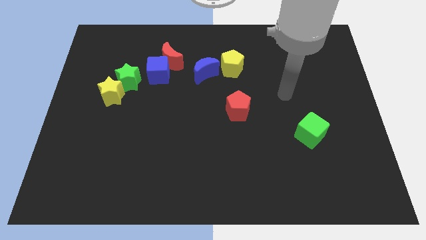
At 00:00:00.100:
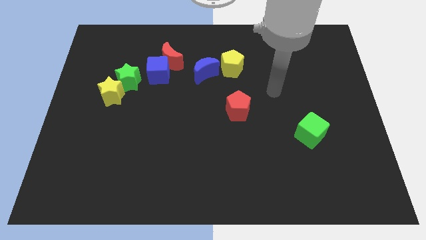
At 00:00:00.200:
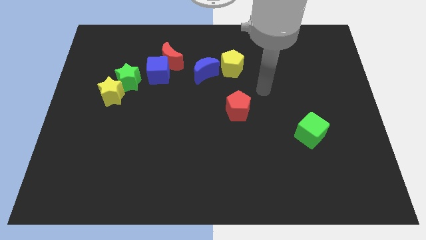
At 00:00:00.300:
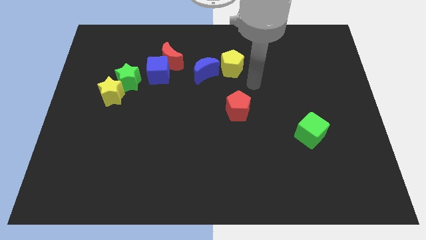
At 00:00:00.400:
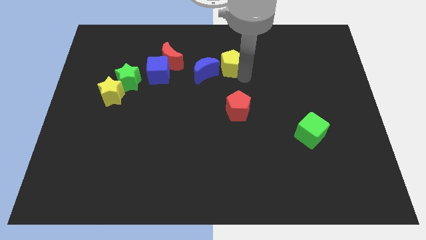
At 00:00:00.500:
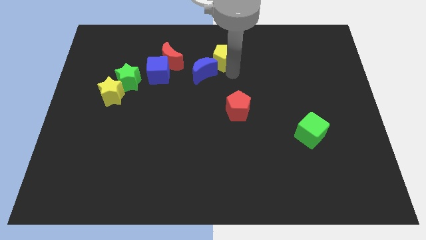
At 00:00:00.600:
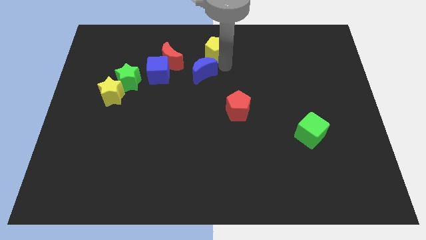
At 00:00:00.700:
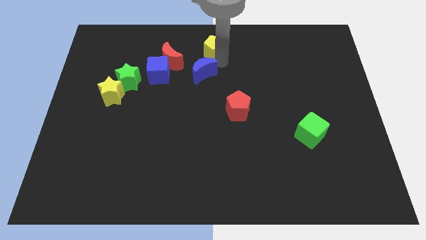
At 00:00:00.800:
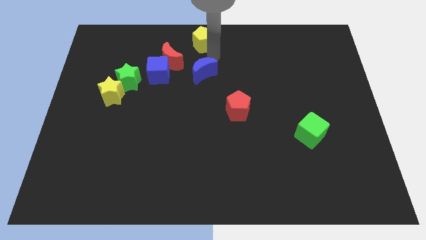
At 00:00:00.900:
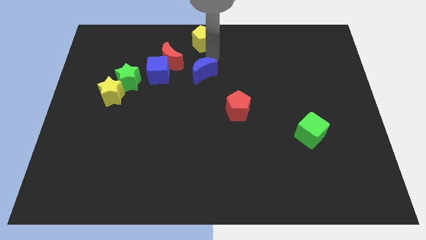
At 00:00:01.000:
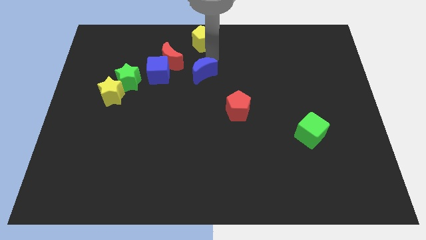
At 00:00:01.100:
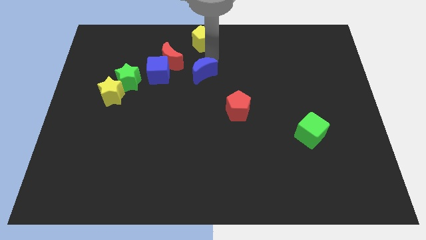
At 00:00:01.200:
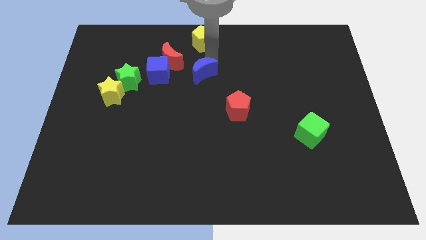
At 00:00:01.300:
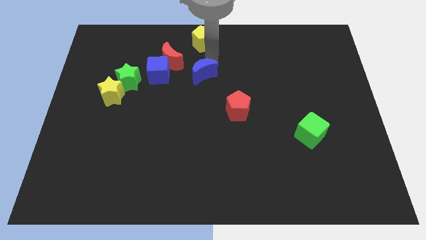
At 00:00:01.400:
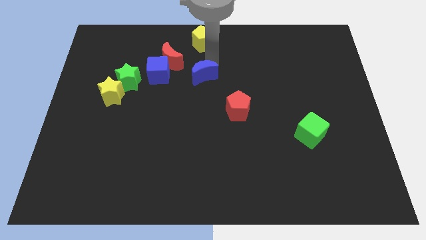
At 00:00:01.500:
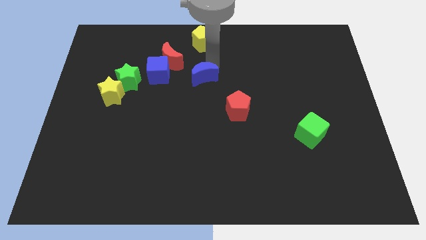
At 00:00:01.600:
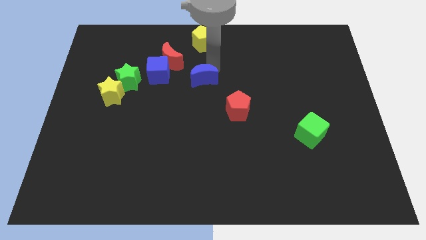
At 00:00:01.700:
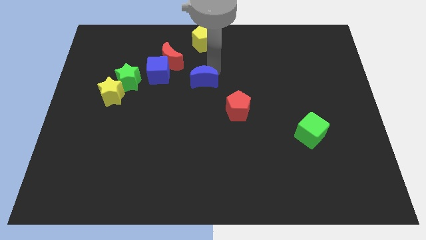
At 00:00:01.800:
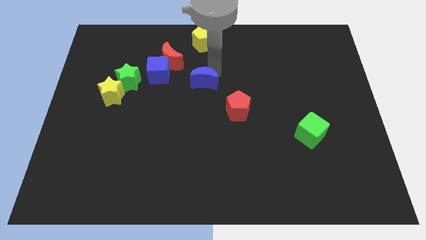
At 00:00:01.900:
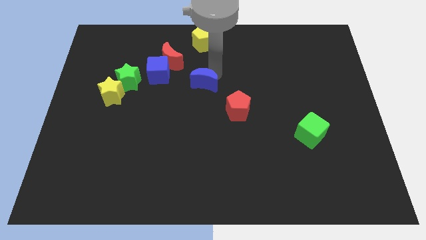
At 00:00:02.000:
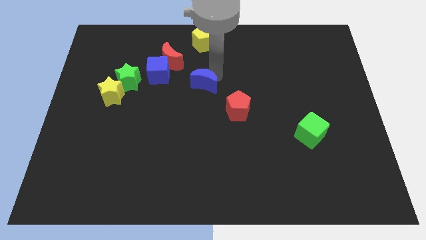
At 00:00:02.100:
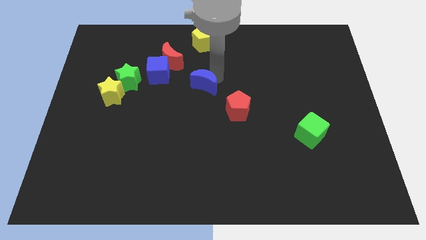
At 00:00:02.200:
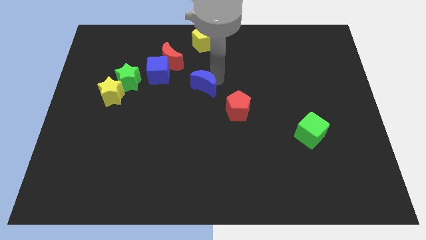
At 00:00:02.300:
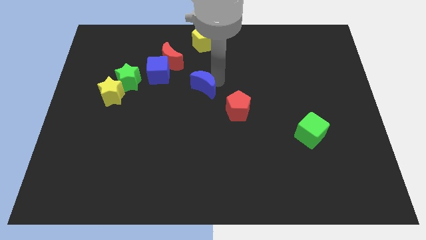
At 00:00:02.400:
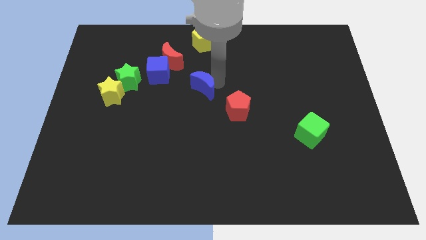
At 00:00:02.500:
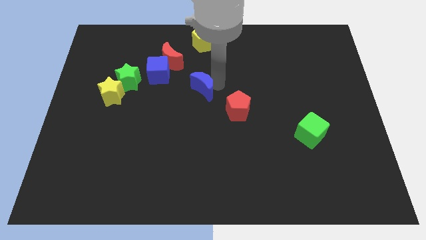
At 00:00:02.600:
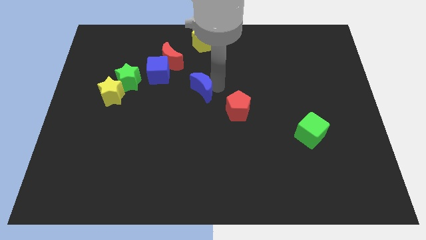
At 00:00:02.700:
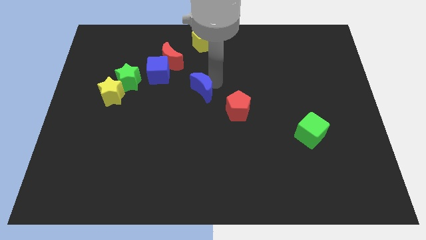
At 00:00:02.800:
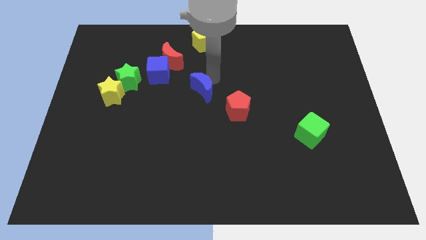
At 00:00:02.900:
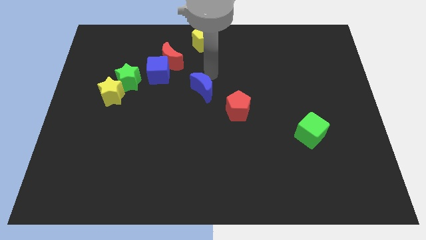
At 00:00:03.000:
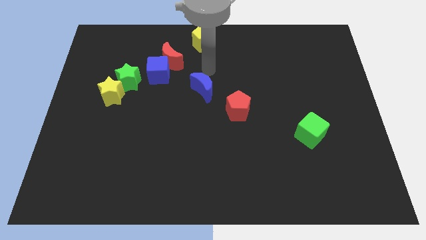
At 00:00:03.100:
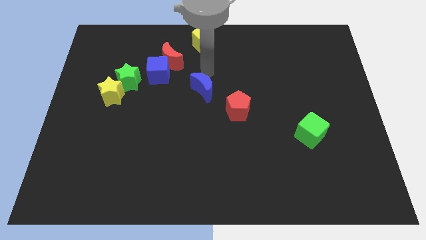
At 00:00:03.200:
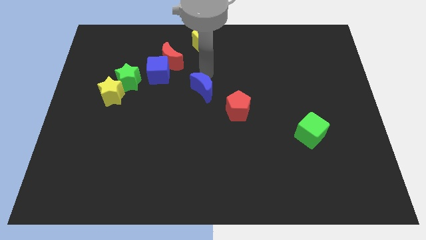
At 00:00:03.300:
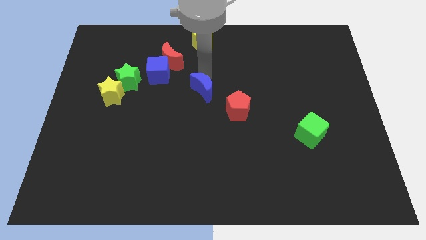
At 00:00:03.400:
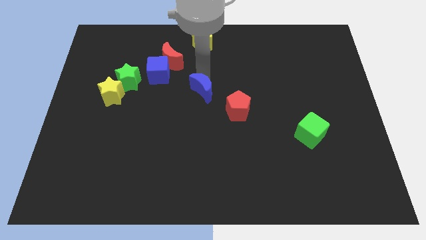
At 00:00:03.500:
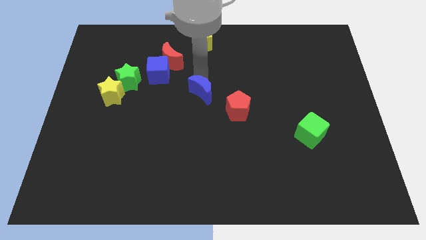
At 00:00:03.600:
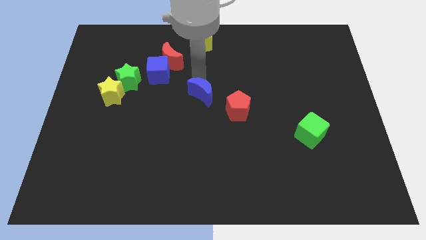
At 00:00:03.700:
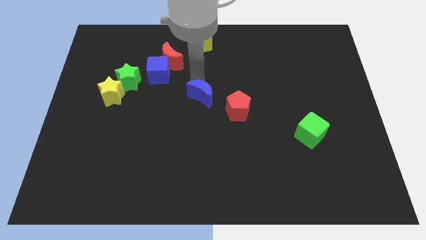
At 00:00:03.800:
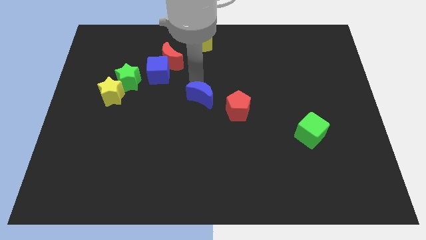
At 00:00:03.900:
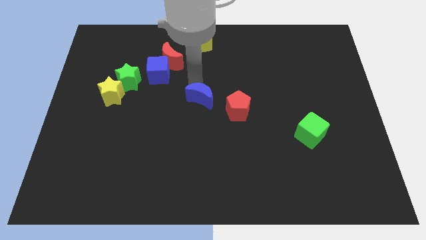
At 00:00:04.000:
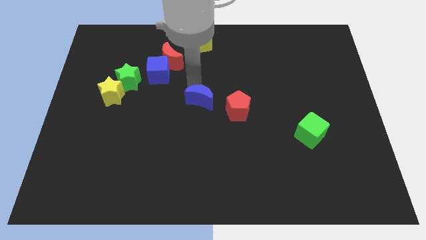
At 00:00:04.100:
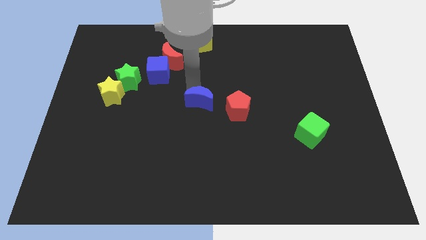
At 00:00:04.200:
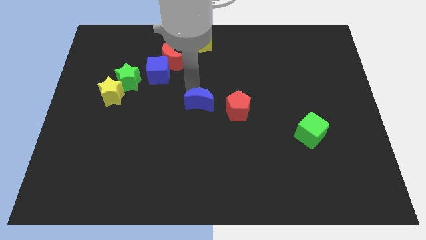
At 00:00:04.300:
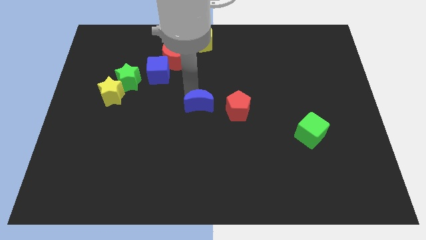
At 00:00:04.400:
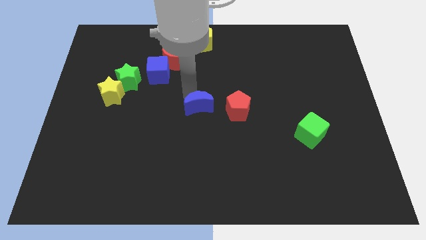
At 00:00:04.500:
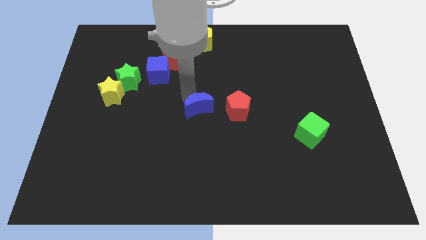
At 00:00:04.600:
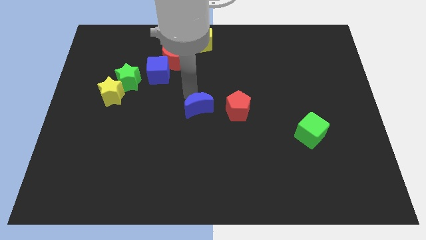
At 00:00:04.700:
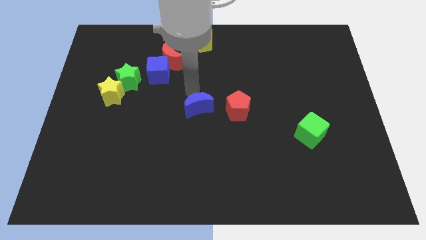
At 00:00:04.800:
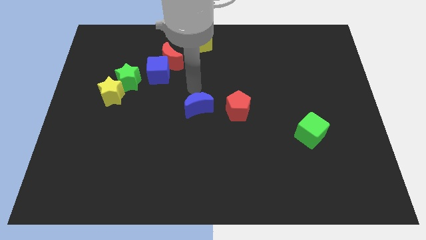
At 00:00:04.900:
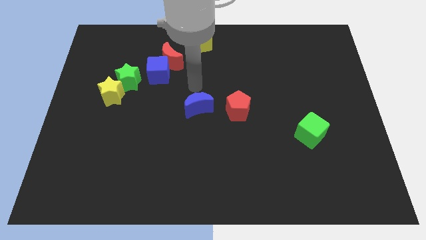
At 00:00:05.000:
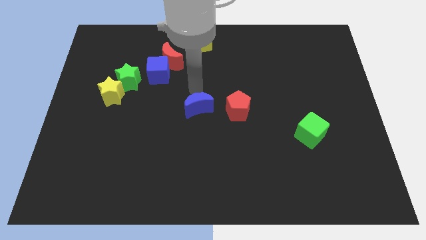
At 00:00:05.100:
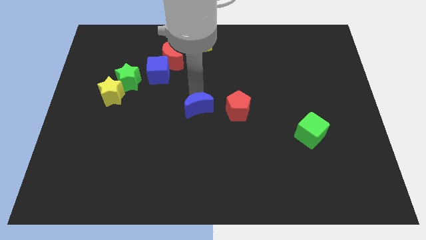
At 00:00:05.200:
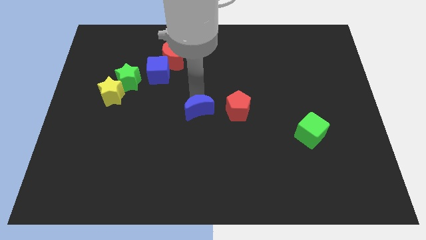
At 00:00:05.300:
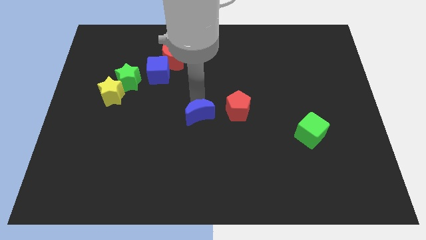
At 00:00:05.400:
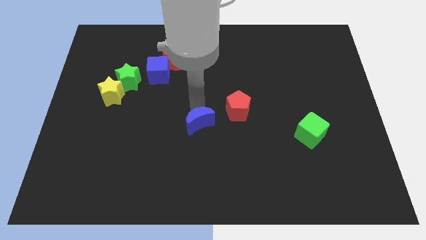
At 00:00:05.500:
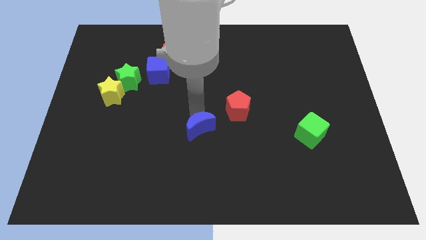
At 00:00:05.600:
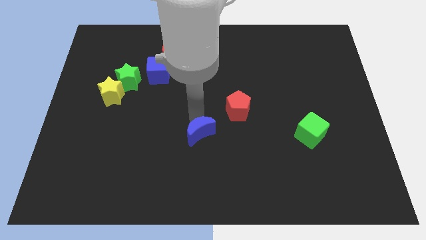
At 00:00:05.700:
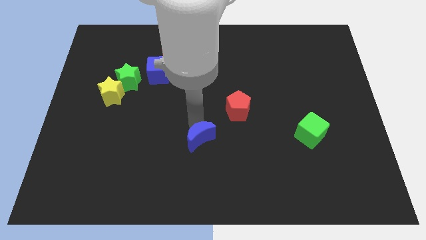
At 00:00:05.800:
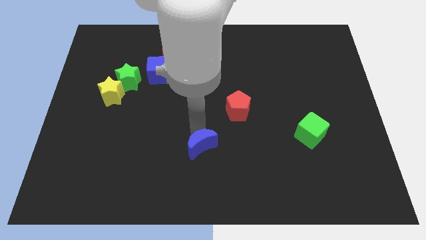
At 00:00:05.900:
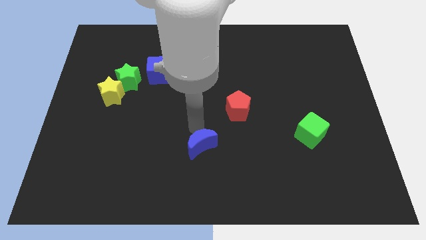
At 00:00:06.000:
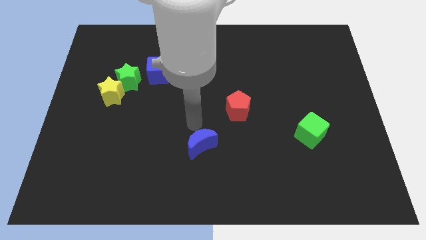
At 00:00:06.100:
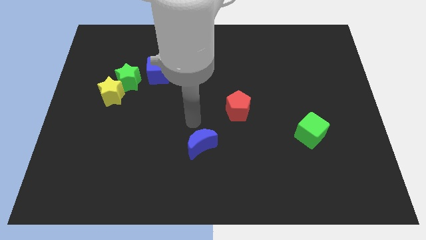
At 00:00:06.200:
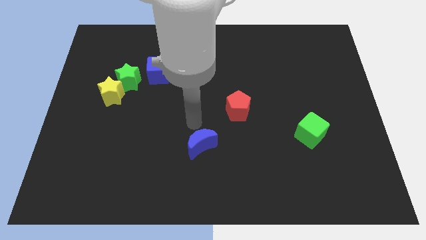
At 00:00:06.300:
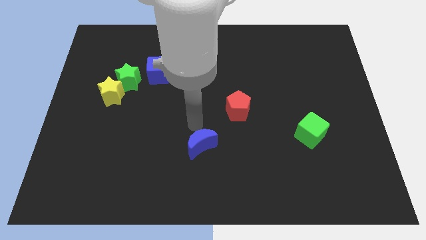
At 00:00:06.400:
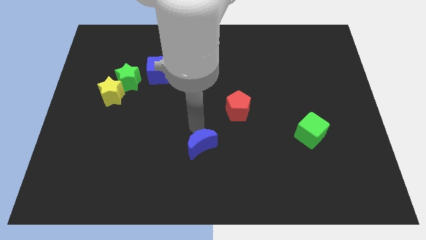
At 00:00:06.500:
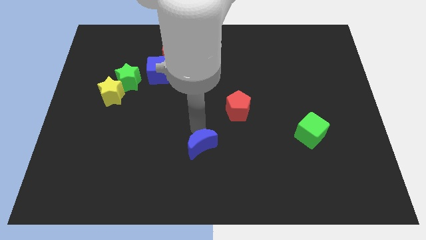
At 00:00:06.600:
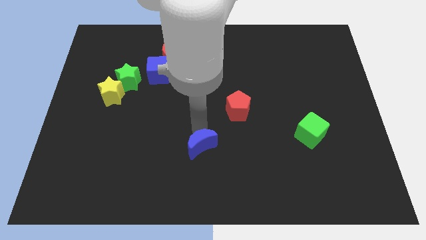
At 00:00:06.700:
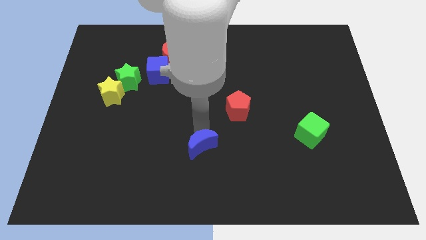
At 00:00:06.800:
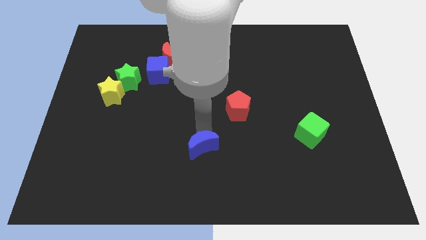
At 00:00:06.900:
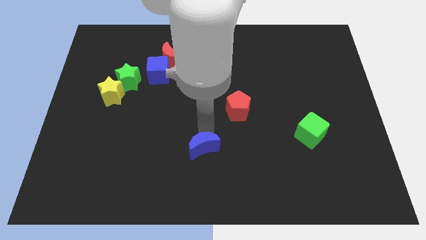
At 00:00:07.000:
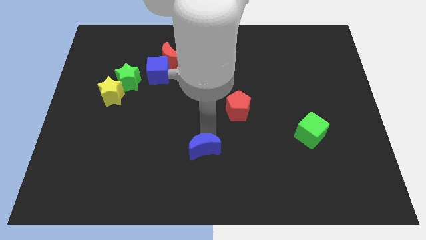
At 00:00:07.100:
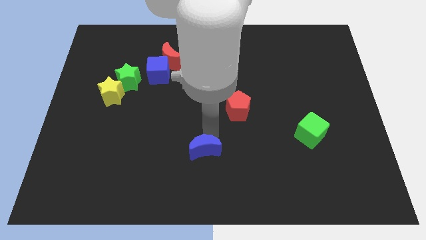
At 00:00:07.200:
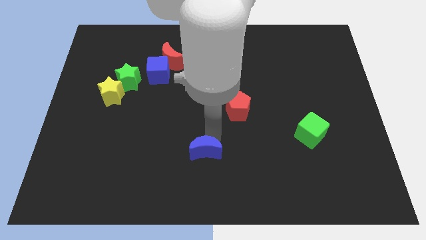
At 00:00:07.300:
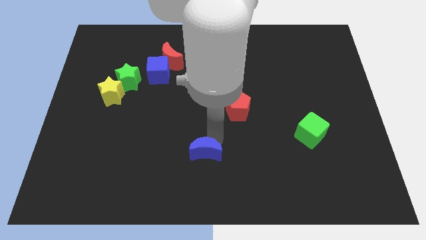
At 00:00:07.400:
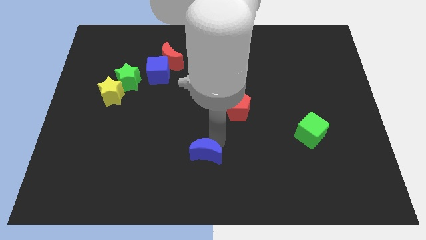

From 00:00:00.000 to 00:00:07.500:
push the blue moon to the bottom
